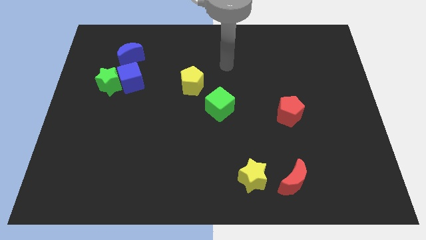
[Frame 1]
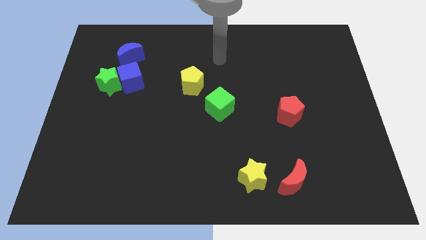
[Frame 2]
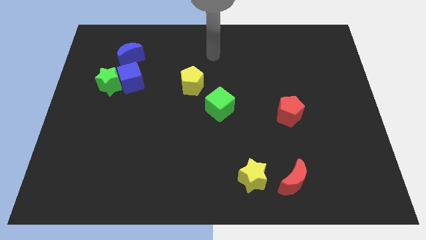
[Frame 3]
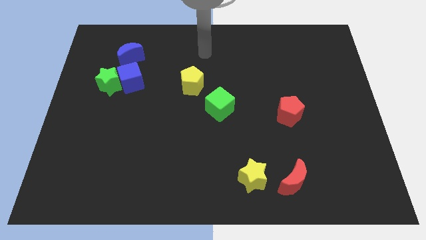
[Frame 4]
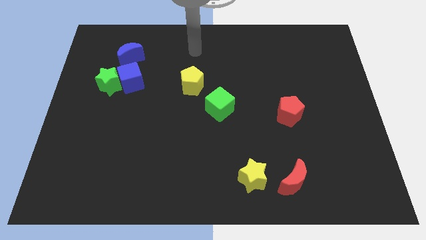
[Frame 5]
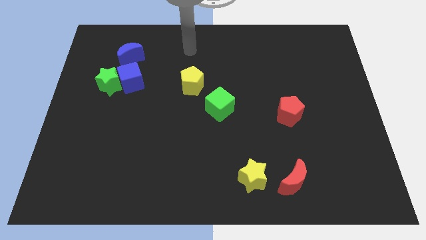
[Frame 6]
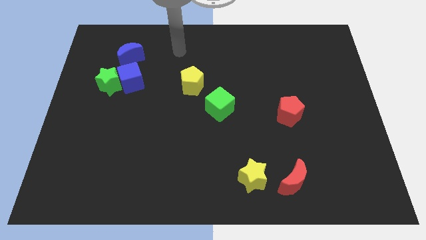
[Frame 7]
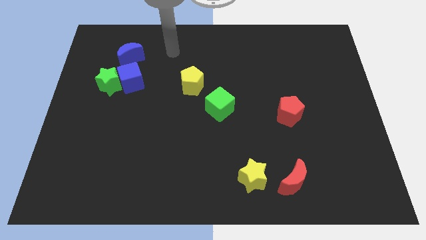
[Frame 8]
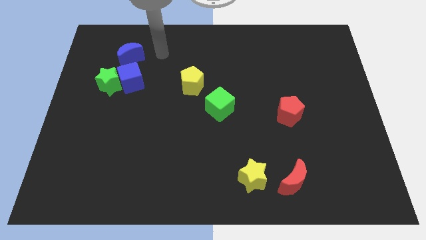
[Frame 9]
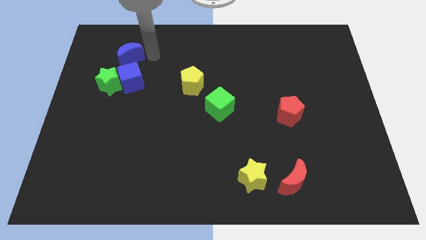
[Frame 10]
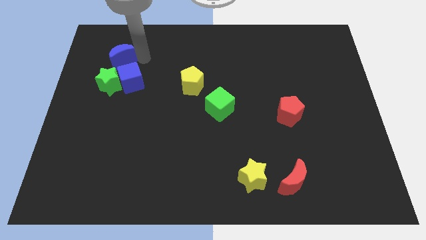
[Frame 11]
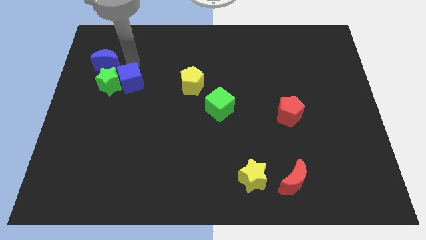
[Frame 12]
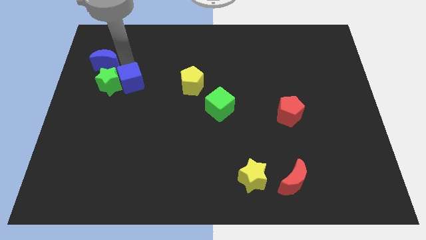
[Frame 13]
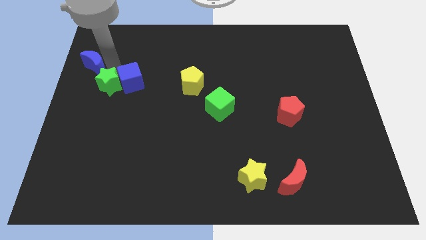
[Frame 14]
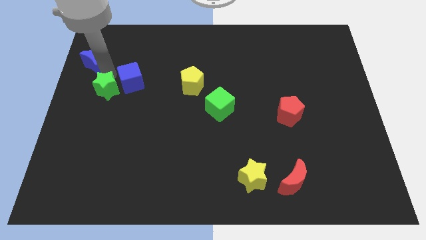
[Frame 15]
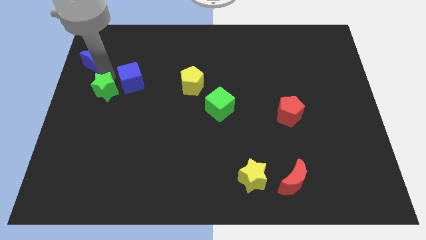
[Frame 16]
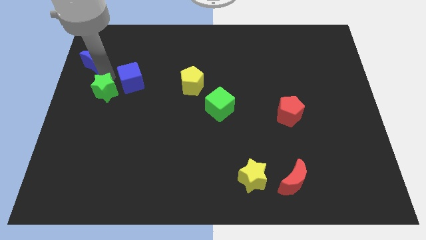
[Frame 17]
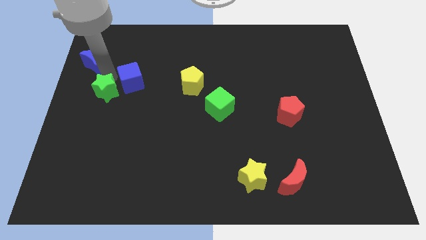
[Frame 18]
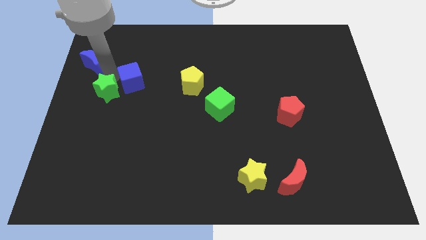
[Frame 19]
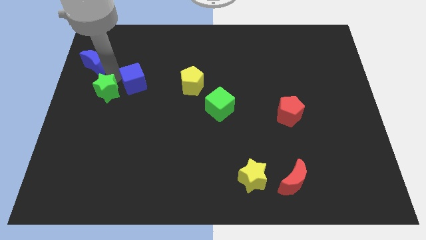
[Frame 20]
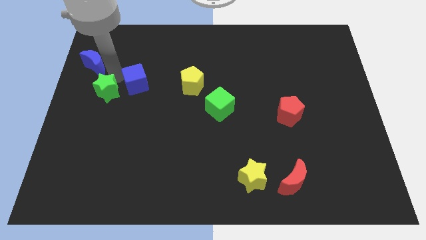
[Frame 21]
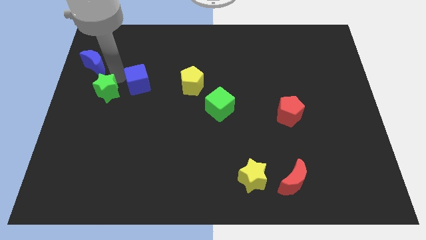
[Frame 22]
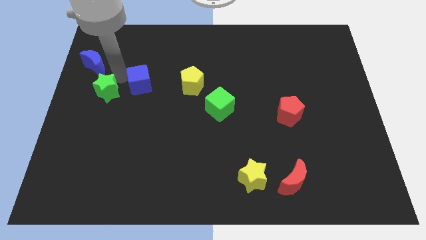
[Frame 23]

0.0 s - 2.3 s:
pull the blue cube apart from the green star and blue moon

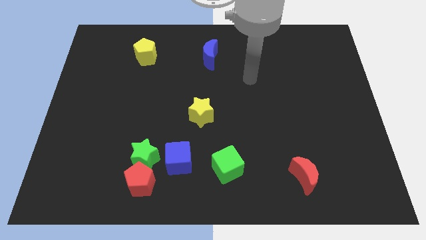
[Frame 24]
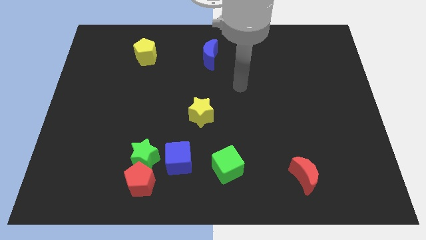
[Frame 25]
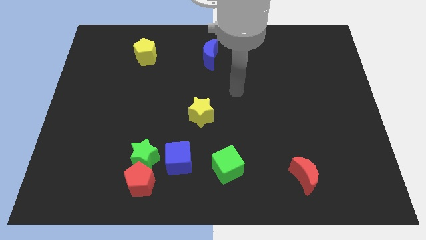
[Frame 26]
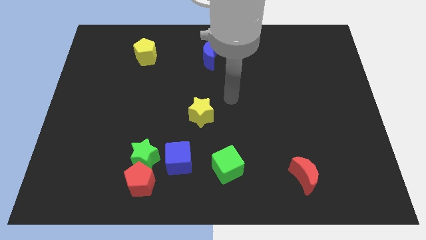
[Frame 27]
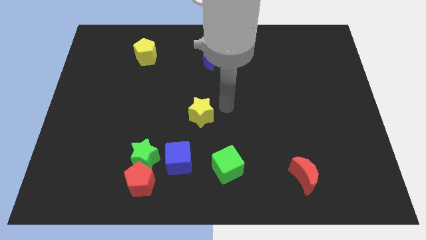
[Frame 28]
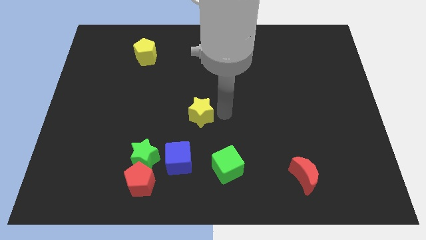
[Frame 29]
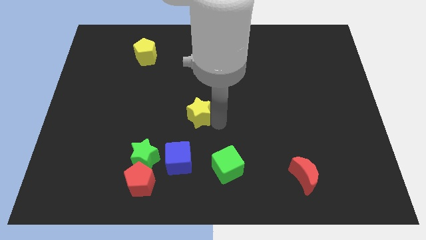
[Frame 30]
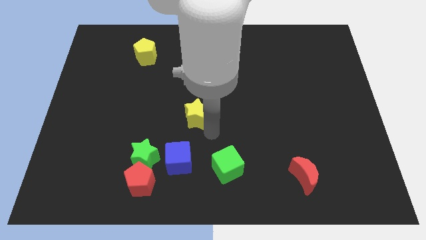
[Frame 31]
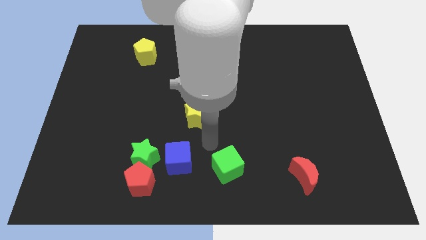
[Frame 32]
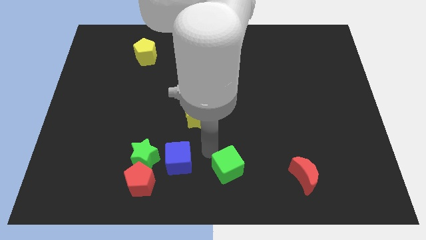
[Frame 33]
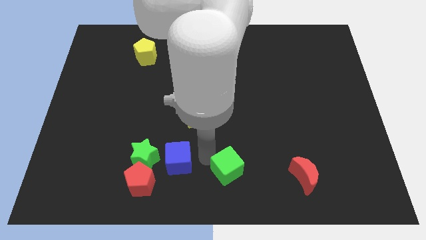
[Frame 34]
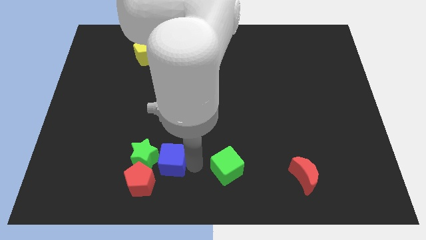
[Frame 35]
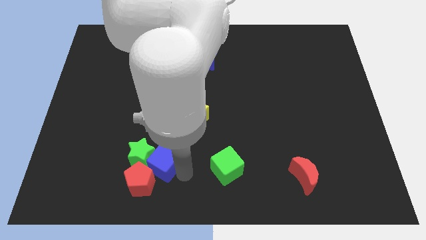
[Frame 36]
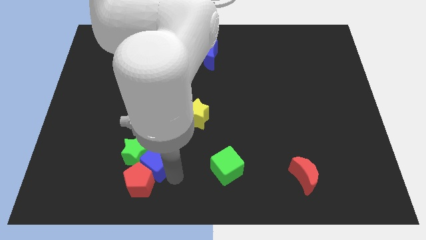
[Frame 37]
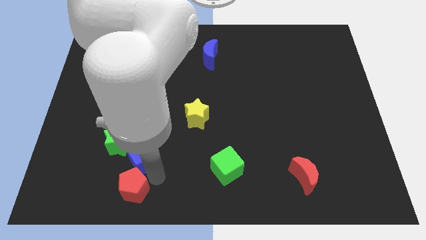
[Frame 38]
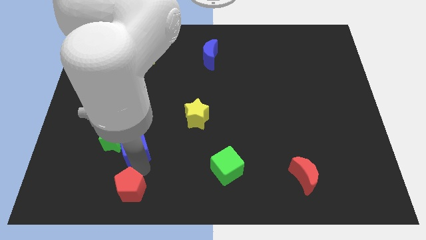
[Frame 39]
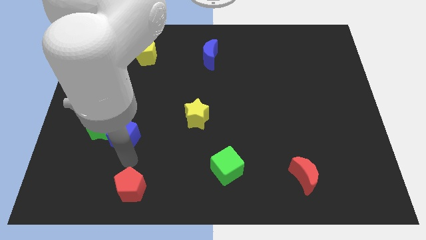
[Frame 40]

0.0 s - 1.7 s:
separate the green star from the red pentagon and blue cube

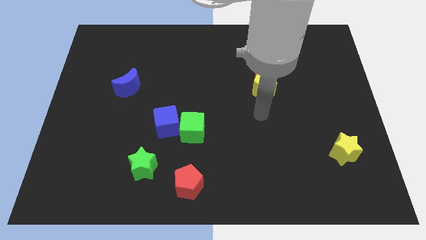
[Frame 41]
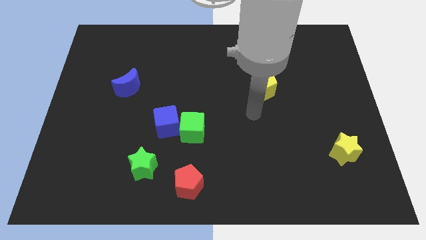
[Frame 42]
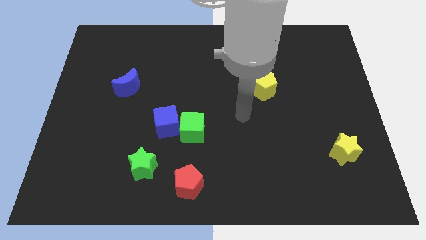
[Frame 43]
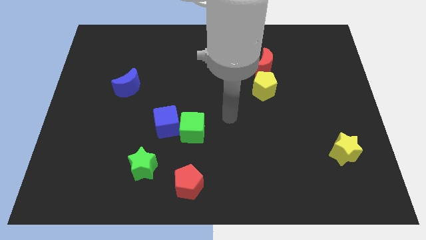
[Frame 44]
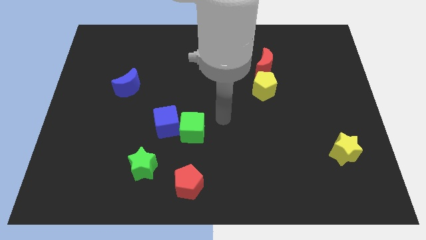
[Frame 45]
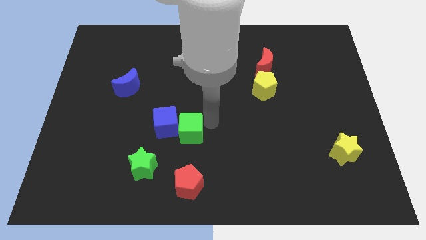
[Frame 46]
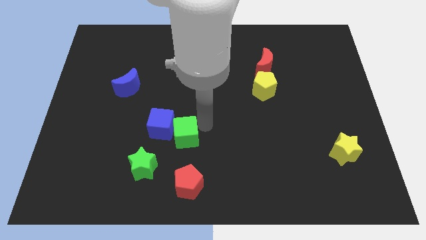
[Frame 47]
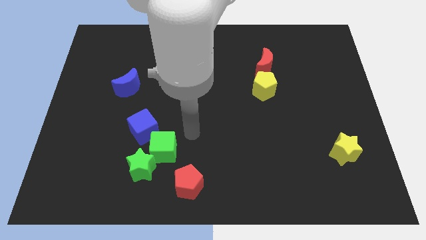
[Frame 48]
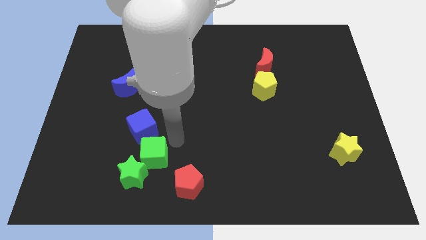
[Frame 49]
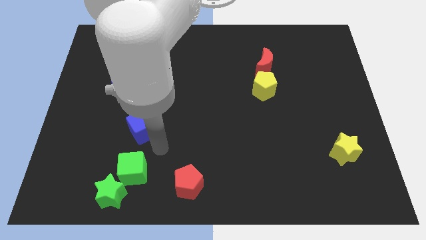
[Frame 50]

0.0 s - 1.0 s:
separate the blue cube from the green cube

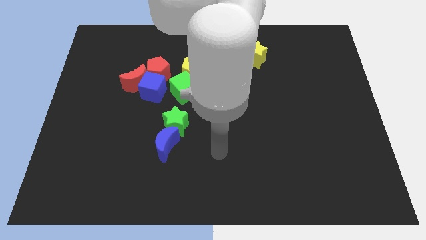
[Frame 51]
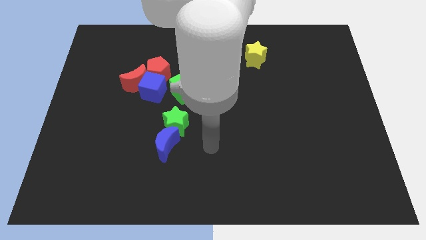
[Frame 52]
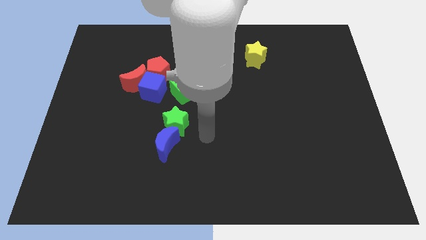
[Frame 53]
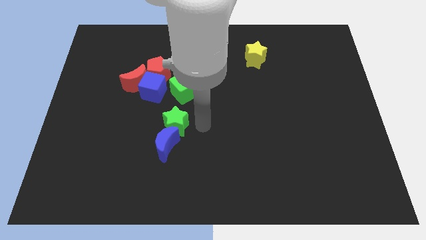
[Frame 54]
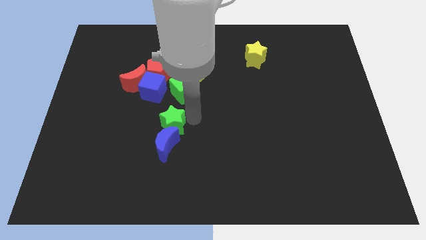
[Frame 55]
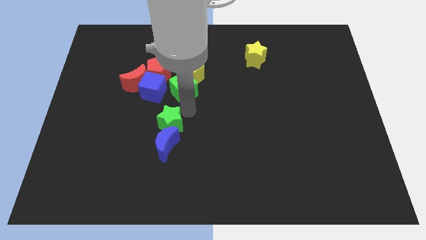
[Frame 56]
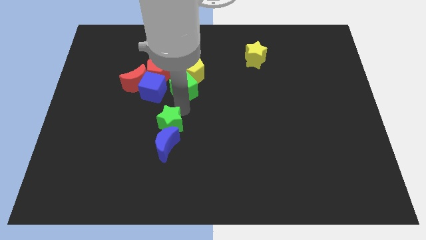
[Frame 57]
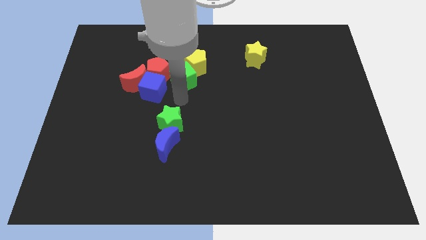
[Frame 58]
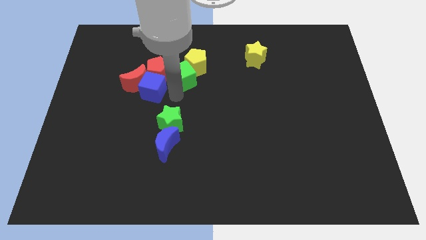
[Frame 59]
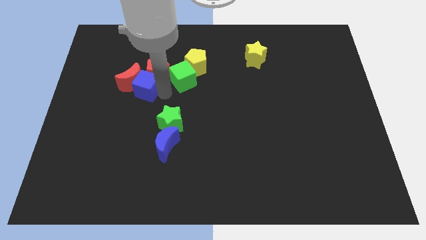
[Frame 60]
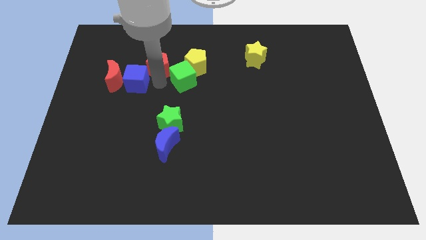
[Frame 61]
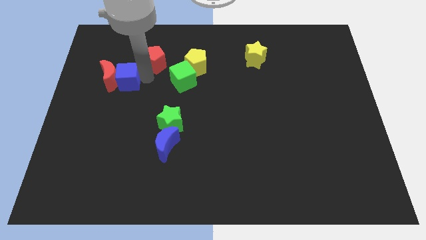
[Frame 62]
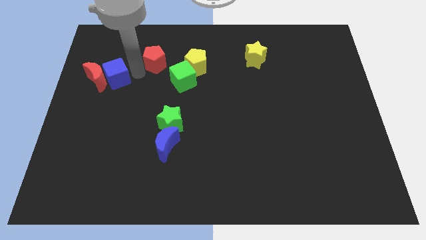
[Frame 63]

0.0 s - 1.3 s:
move the red moon away from the blue cube and red pentagon

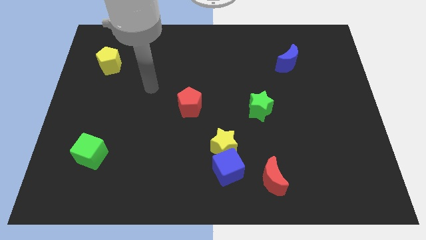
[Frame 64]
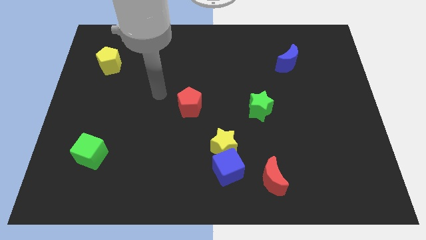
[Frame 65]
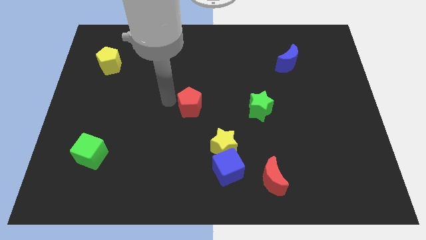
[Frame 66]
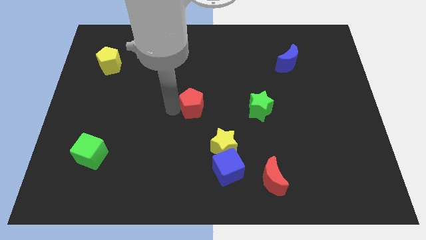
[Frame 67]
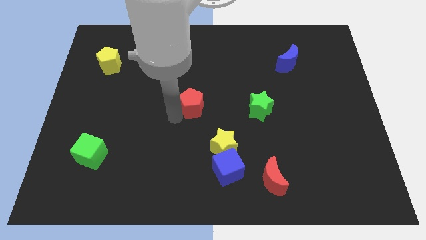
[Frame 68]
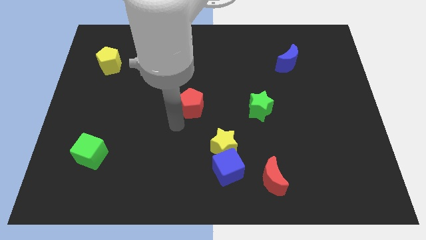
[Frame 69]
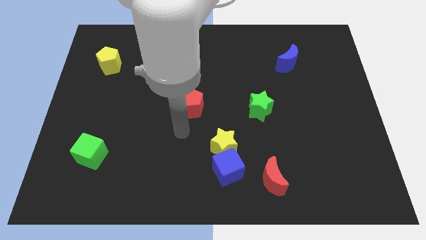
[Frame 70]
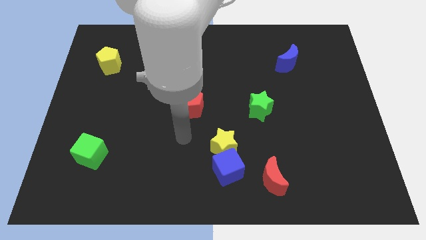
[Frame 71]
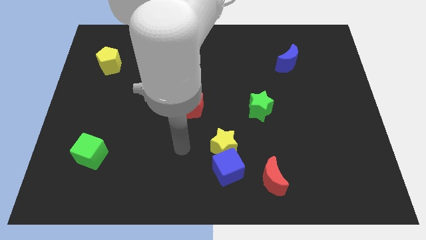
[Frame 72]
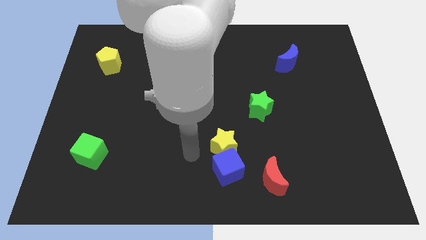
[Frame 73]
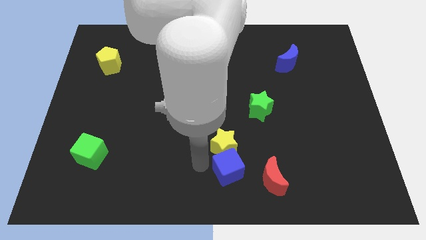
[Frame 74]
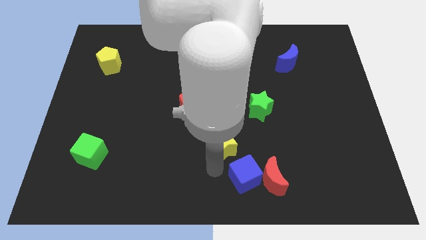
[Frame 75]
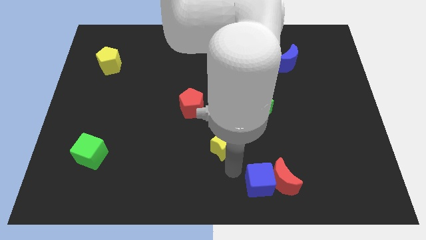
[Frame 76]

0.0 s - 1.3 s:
separate the yellow star from the blue cube

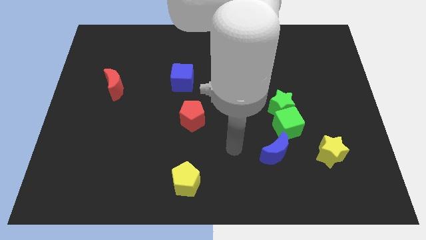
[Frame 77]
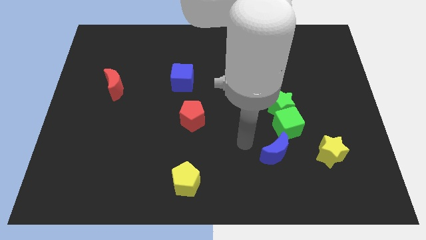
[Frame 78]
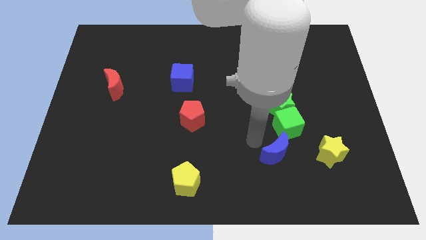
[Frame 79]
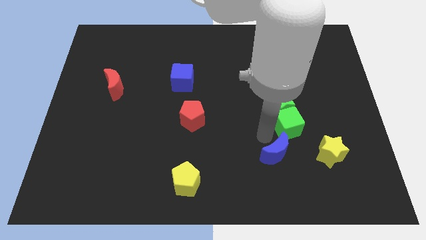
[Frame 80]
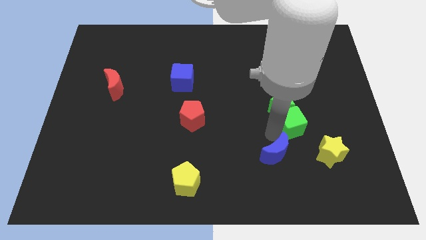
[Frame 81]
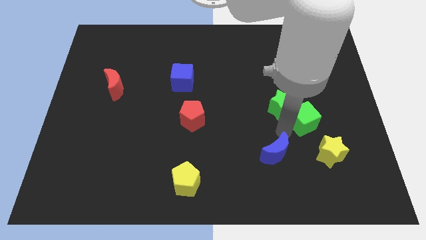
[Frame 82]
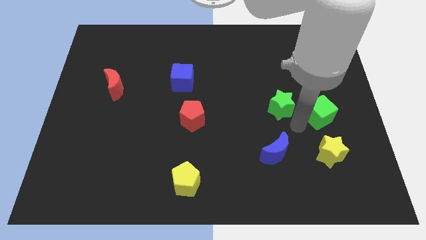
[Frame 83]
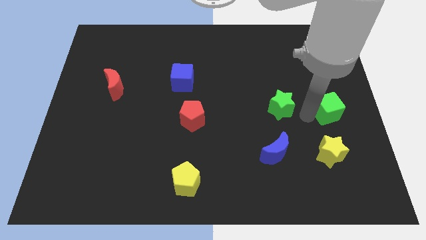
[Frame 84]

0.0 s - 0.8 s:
pull the green star apart from the green cube

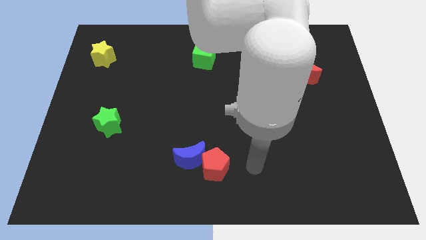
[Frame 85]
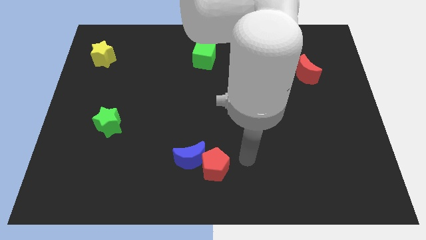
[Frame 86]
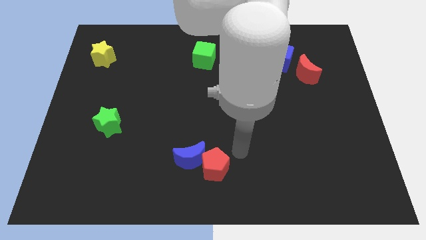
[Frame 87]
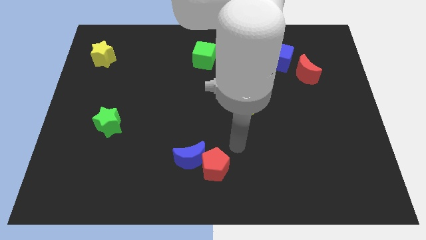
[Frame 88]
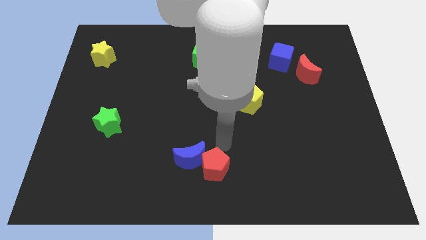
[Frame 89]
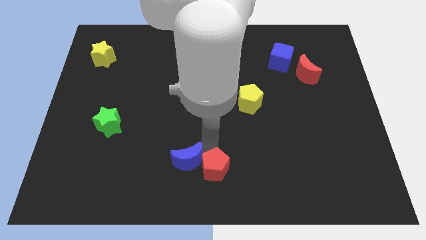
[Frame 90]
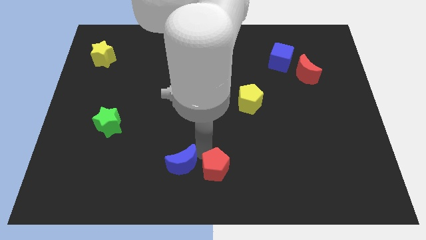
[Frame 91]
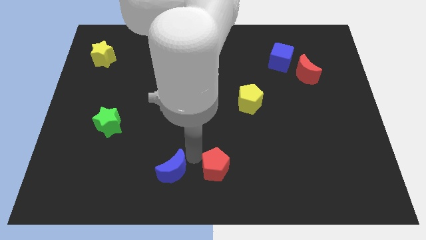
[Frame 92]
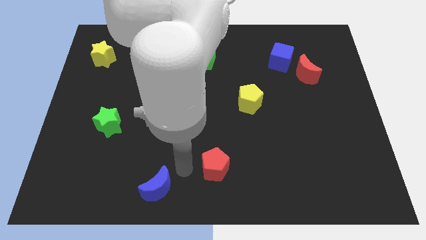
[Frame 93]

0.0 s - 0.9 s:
separate the red pentagon from the blue moon
